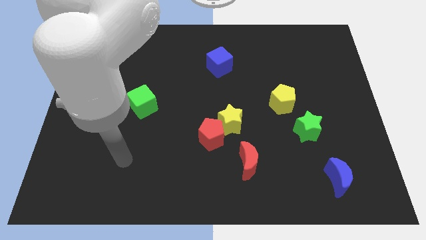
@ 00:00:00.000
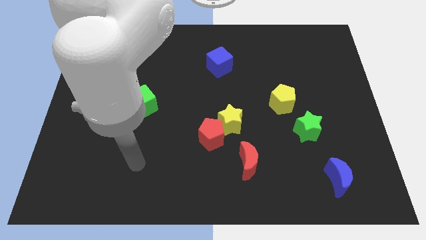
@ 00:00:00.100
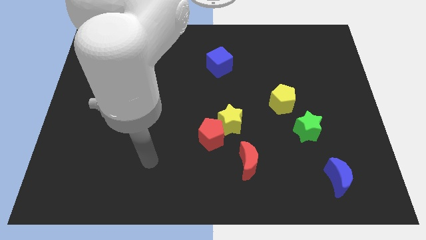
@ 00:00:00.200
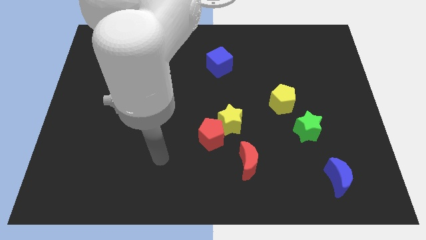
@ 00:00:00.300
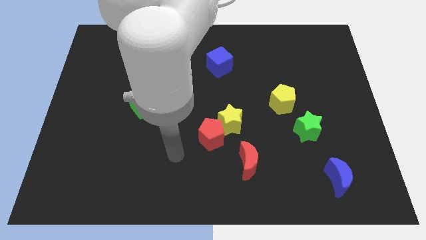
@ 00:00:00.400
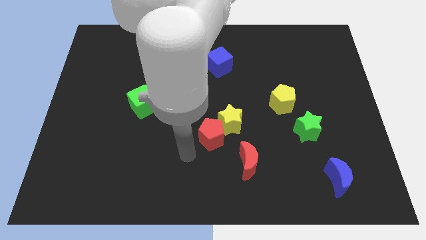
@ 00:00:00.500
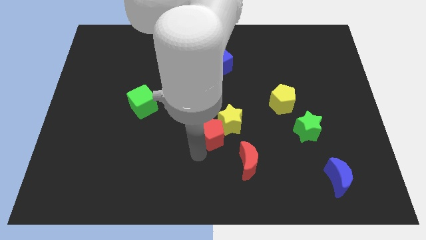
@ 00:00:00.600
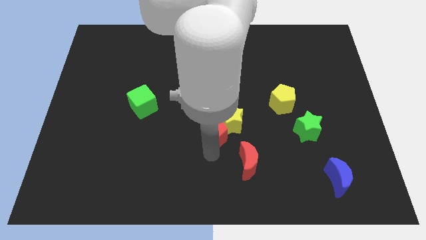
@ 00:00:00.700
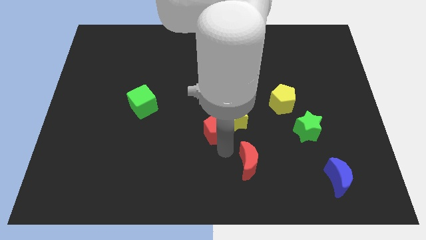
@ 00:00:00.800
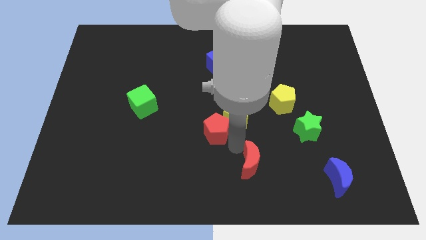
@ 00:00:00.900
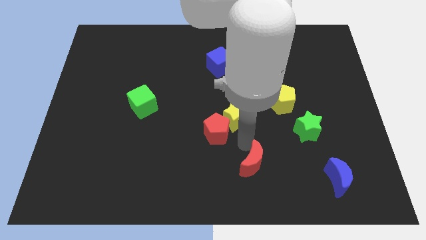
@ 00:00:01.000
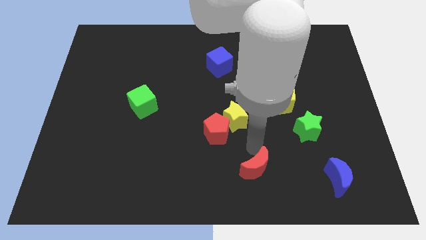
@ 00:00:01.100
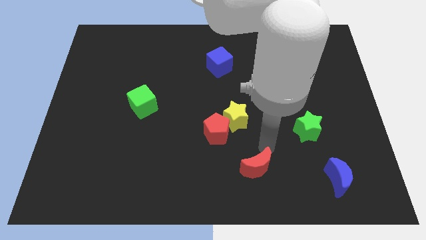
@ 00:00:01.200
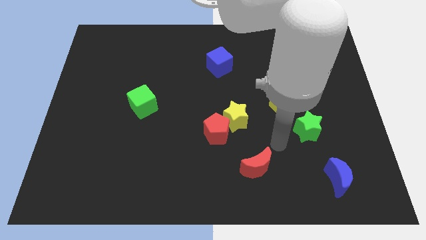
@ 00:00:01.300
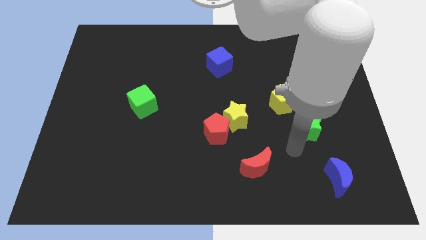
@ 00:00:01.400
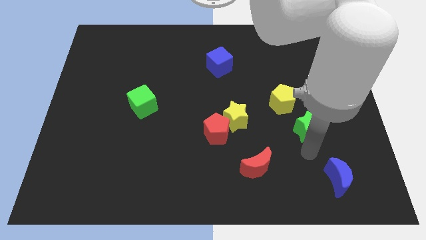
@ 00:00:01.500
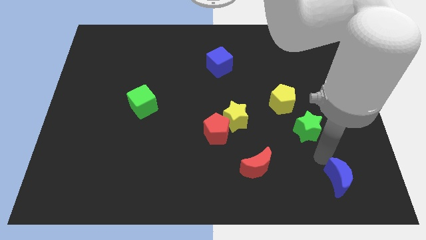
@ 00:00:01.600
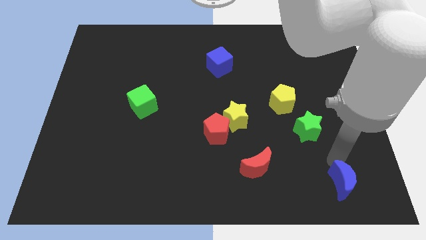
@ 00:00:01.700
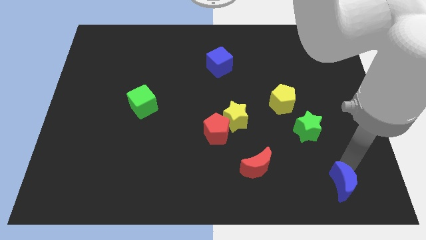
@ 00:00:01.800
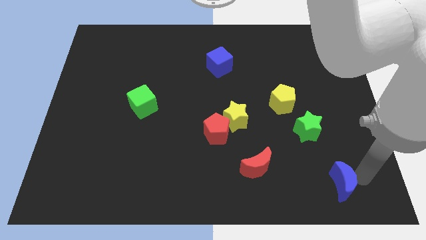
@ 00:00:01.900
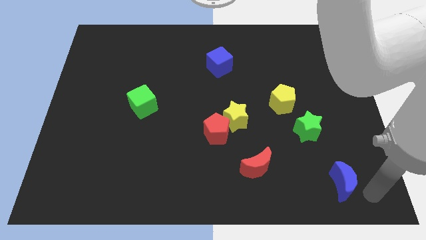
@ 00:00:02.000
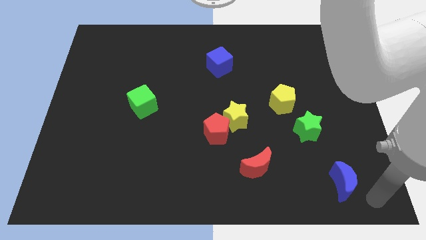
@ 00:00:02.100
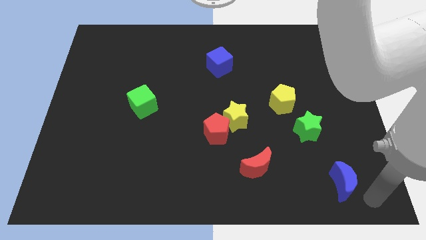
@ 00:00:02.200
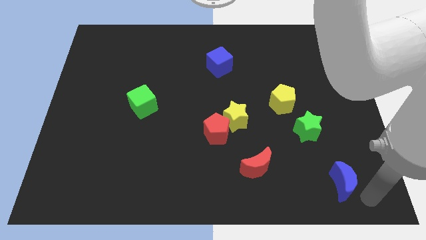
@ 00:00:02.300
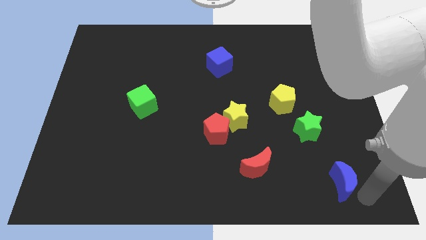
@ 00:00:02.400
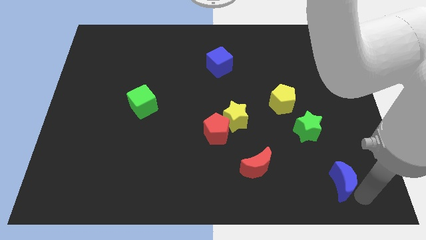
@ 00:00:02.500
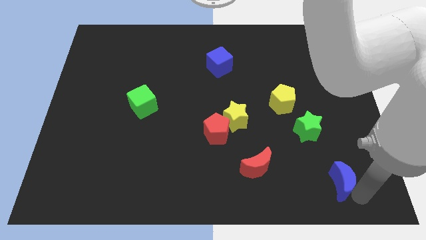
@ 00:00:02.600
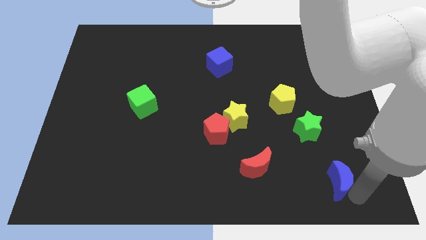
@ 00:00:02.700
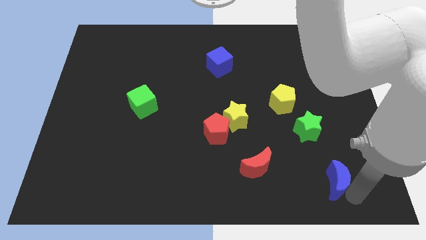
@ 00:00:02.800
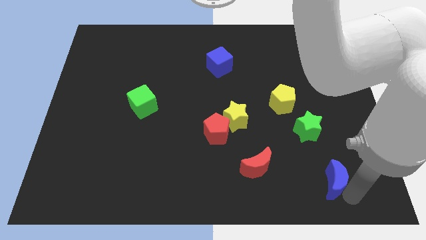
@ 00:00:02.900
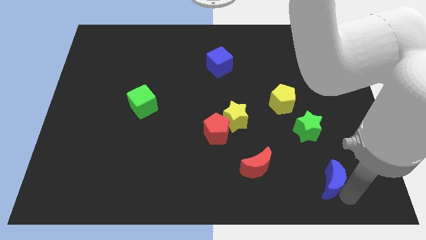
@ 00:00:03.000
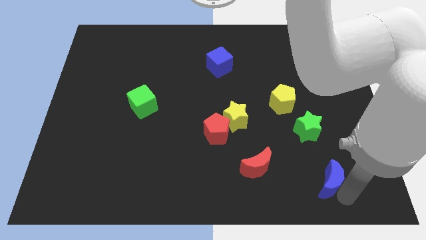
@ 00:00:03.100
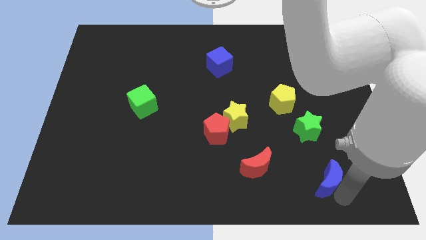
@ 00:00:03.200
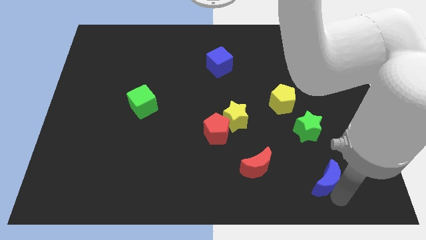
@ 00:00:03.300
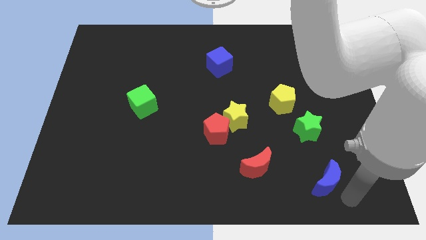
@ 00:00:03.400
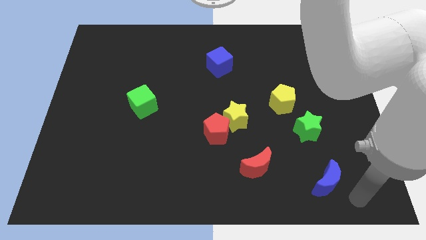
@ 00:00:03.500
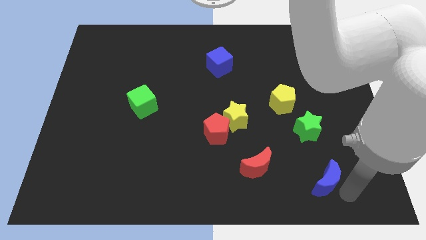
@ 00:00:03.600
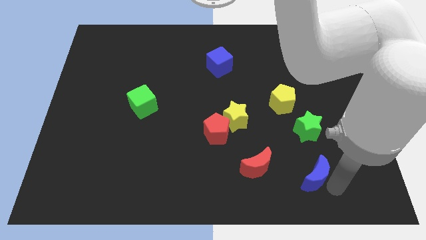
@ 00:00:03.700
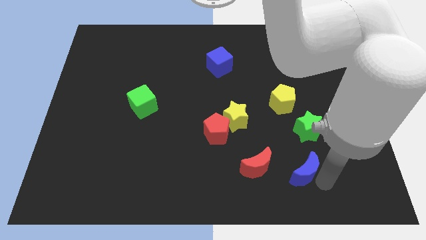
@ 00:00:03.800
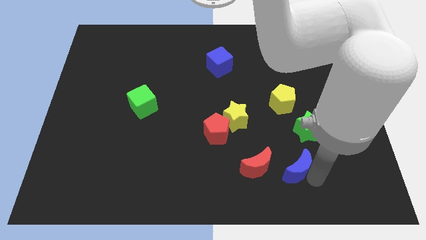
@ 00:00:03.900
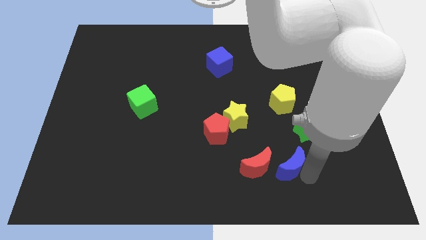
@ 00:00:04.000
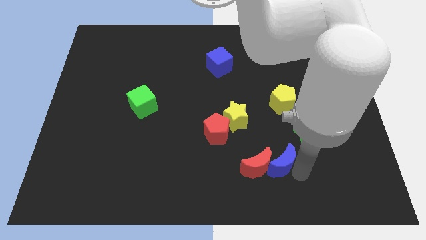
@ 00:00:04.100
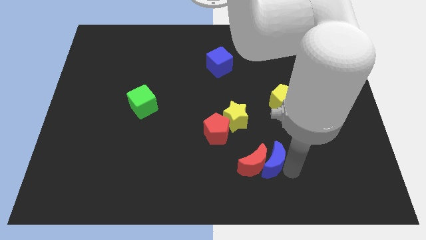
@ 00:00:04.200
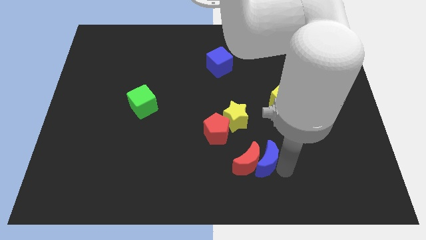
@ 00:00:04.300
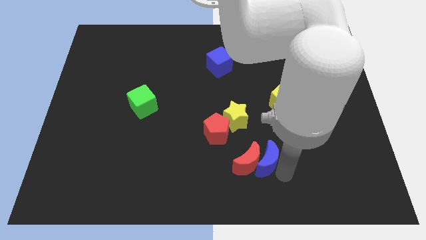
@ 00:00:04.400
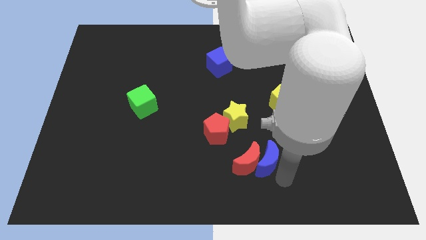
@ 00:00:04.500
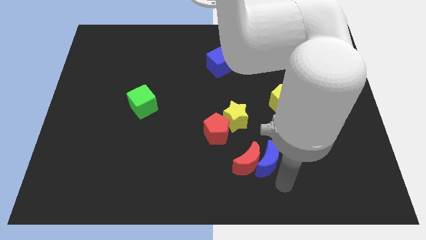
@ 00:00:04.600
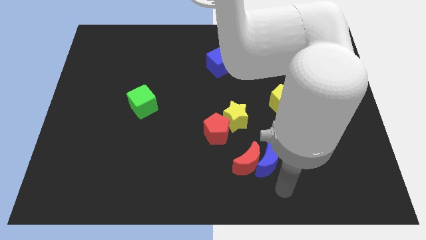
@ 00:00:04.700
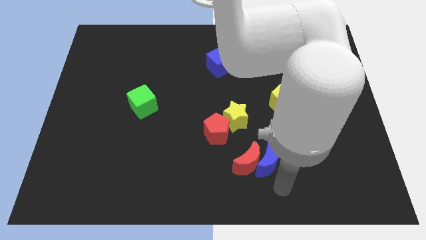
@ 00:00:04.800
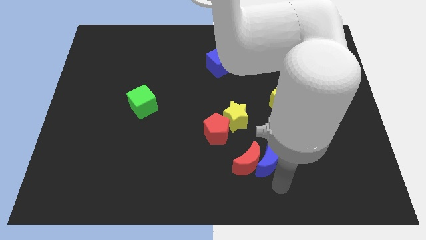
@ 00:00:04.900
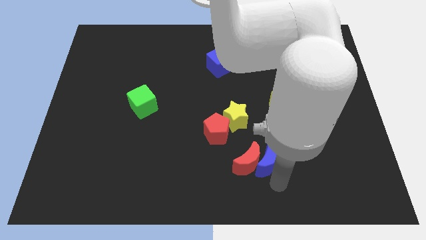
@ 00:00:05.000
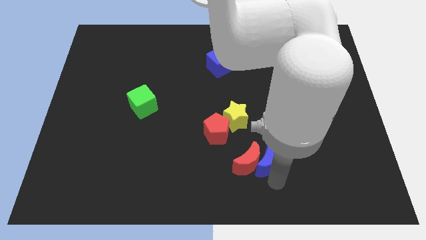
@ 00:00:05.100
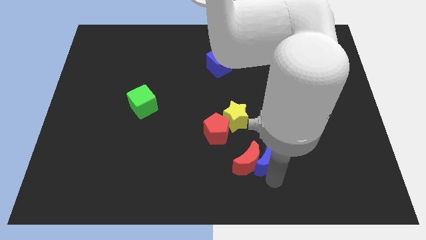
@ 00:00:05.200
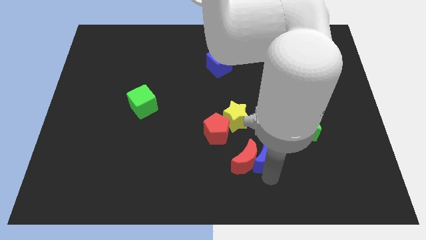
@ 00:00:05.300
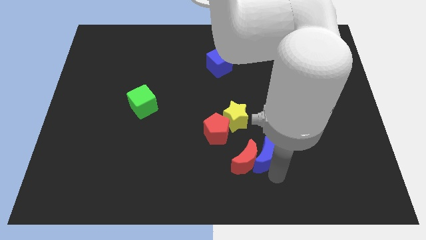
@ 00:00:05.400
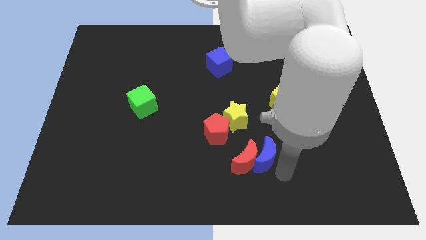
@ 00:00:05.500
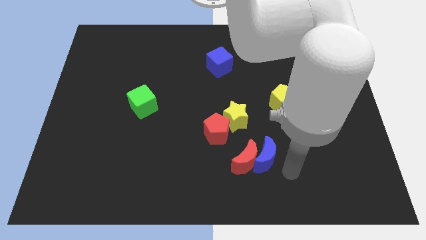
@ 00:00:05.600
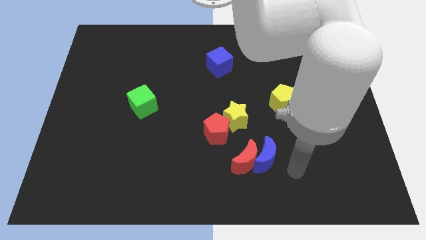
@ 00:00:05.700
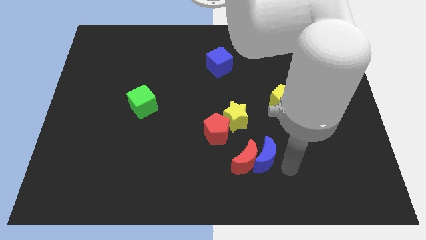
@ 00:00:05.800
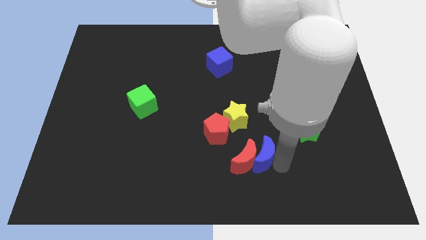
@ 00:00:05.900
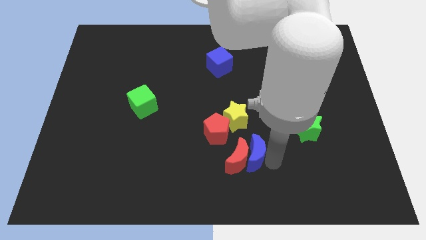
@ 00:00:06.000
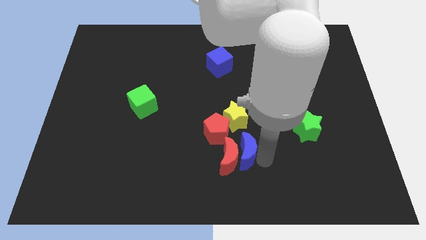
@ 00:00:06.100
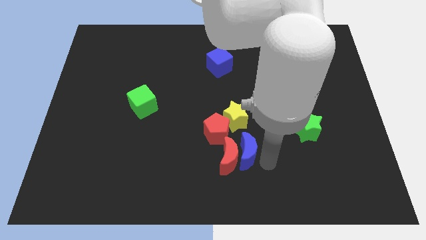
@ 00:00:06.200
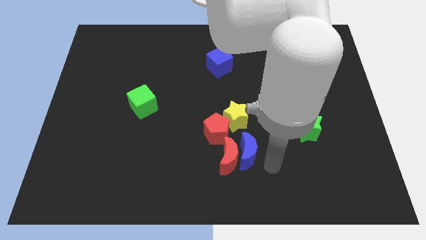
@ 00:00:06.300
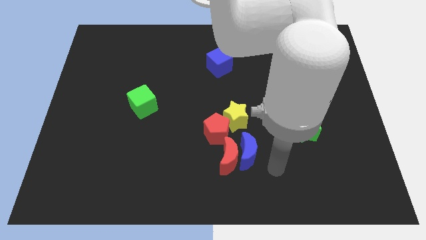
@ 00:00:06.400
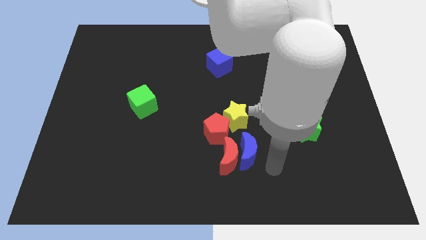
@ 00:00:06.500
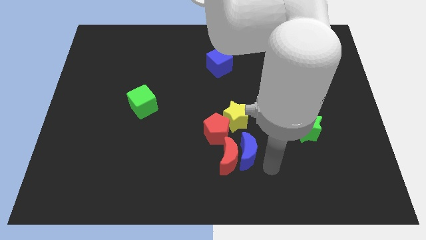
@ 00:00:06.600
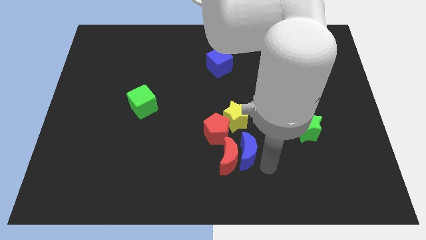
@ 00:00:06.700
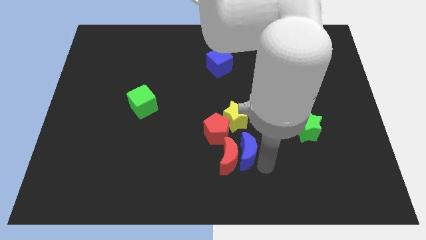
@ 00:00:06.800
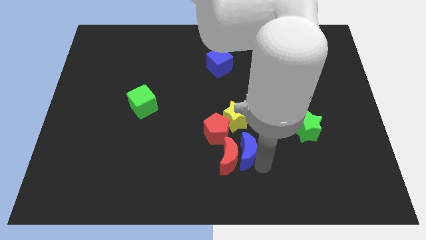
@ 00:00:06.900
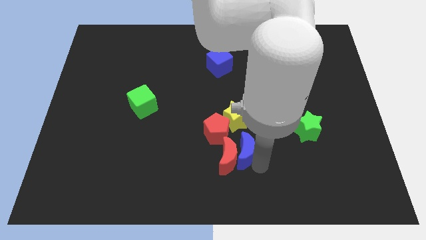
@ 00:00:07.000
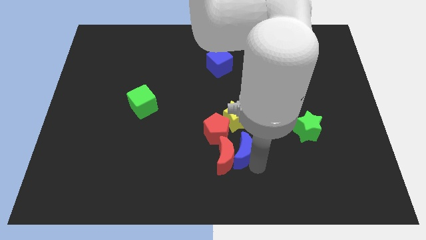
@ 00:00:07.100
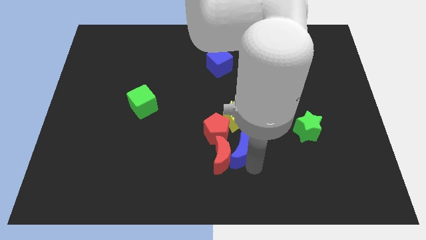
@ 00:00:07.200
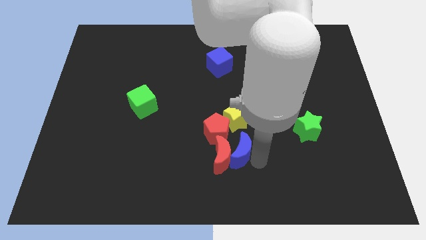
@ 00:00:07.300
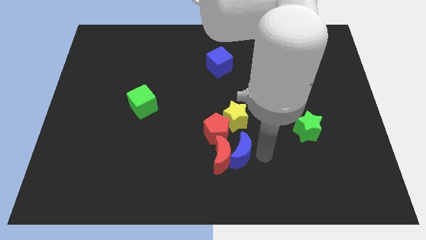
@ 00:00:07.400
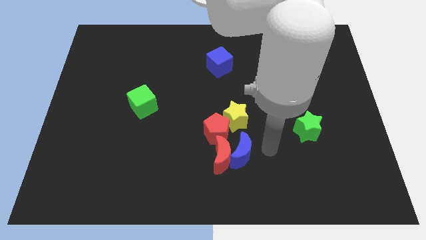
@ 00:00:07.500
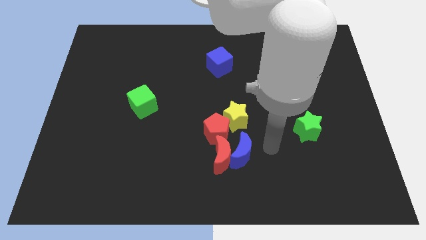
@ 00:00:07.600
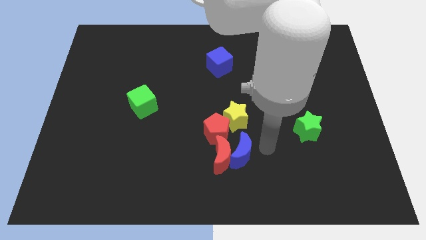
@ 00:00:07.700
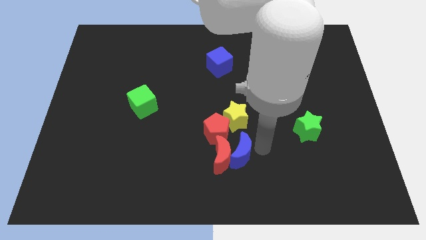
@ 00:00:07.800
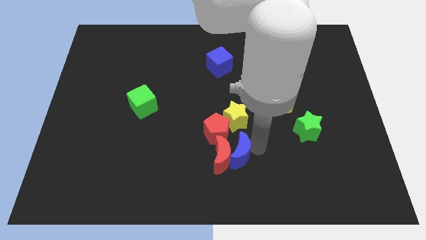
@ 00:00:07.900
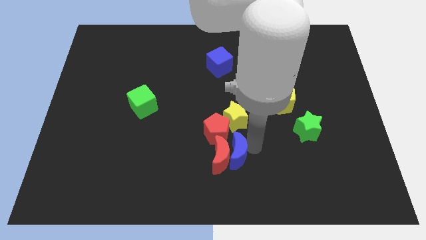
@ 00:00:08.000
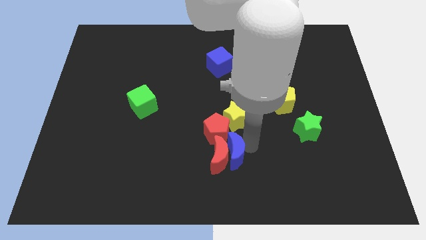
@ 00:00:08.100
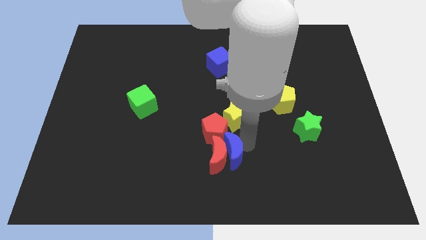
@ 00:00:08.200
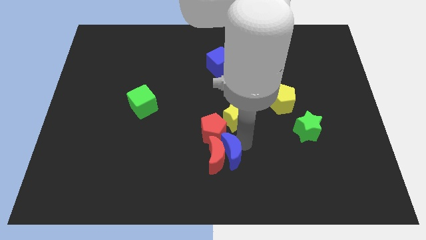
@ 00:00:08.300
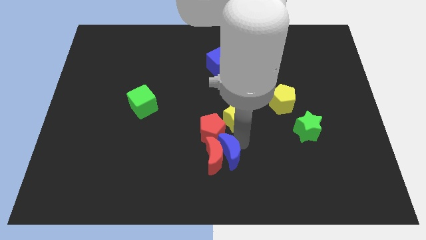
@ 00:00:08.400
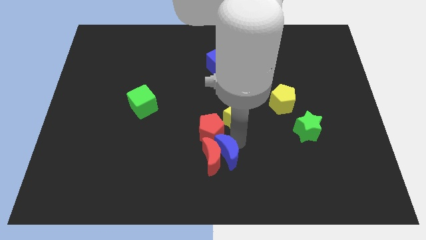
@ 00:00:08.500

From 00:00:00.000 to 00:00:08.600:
push the blue moon to the bottom left side of the yellow star
